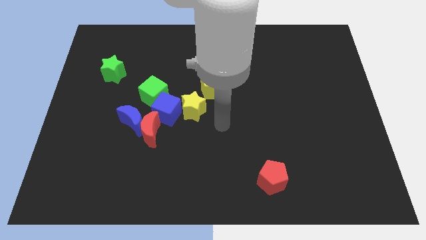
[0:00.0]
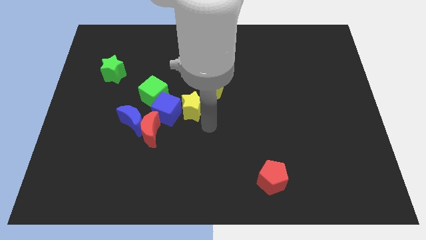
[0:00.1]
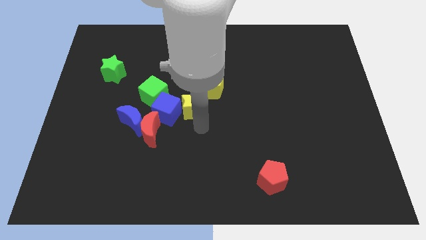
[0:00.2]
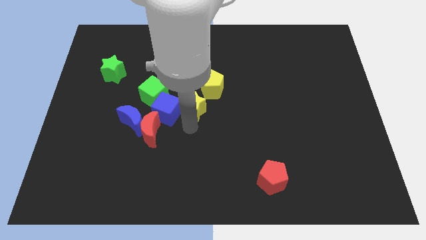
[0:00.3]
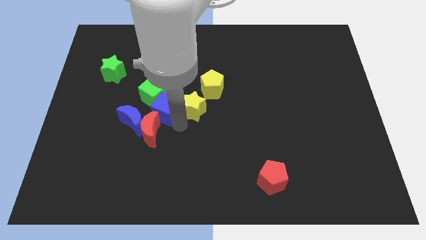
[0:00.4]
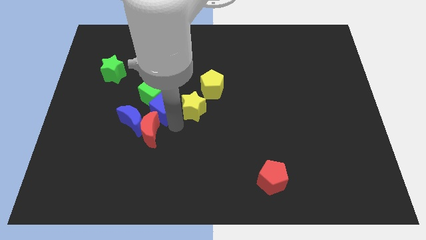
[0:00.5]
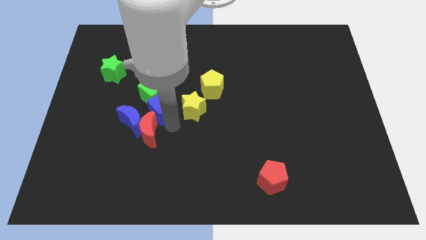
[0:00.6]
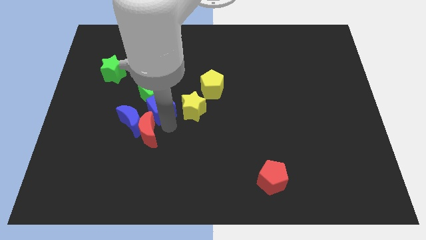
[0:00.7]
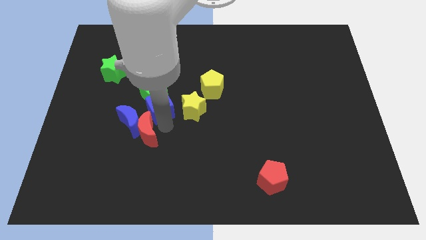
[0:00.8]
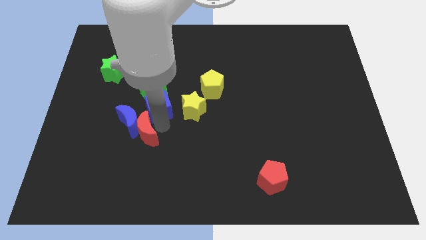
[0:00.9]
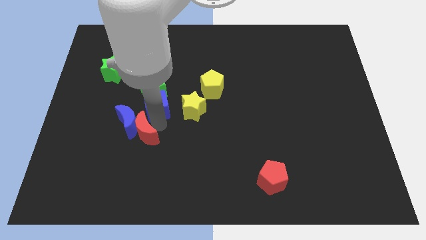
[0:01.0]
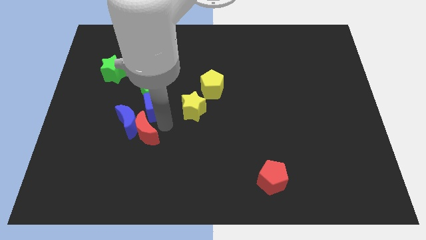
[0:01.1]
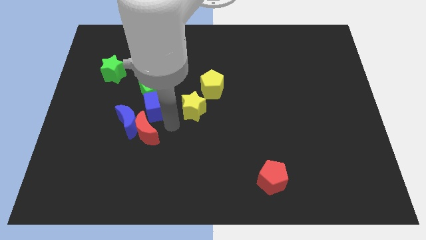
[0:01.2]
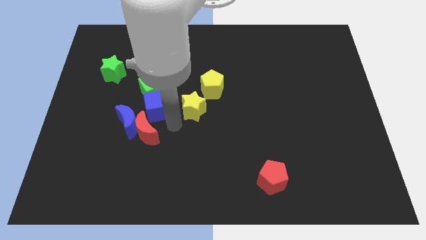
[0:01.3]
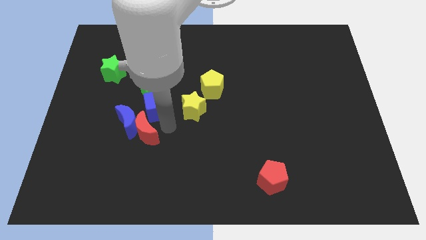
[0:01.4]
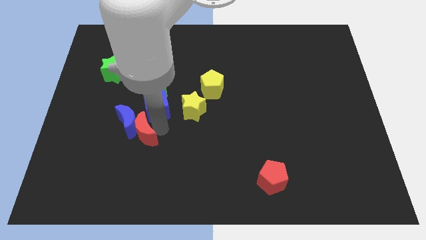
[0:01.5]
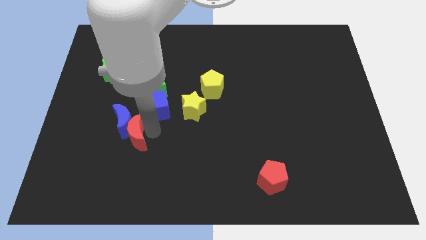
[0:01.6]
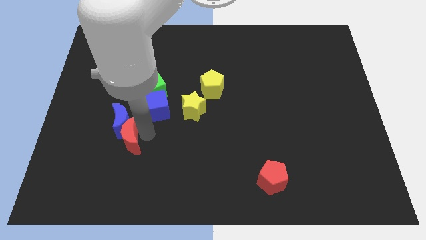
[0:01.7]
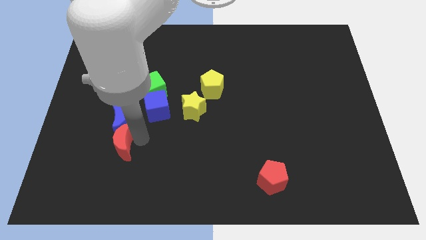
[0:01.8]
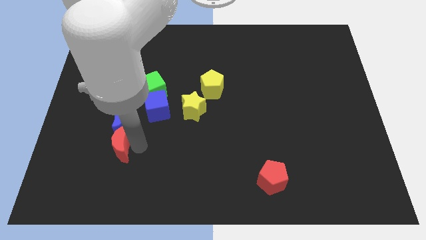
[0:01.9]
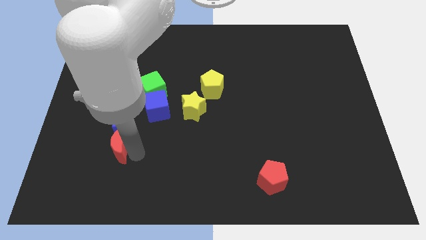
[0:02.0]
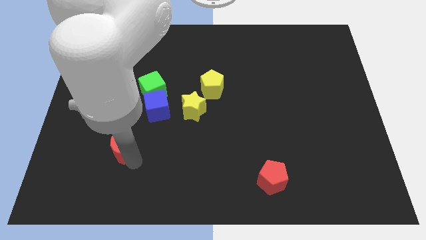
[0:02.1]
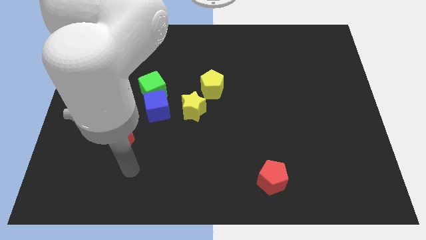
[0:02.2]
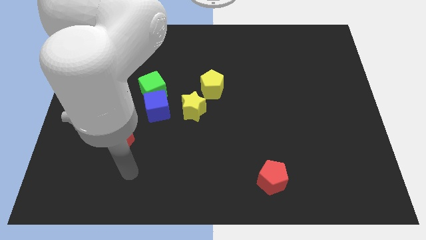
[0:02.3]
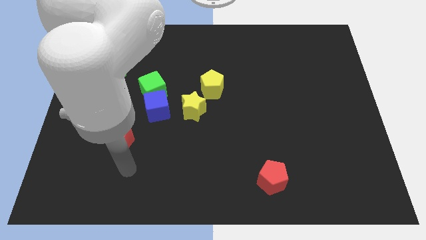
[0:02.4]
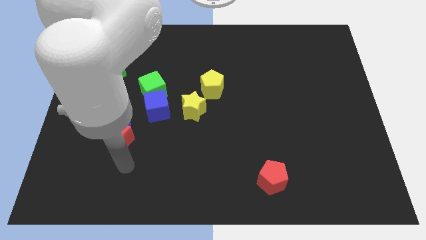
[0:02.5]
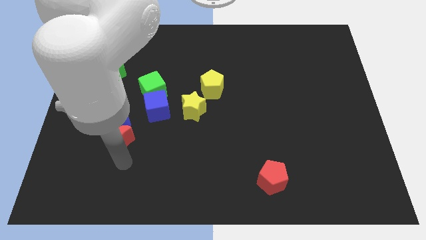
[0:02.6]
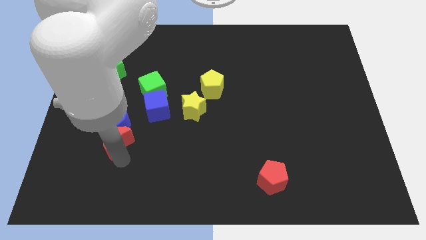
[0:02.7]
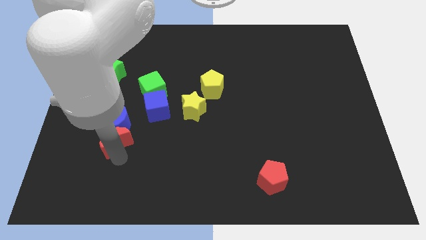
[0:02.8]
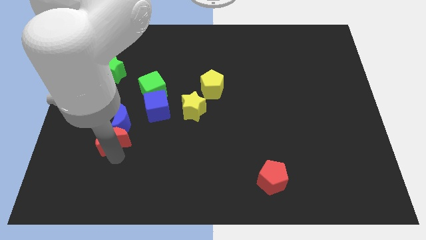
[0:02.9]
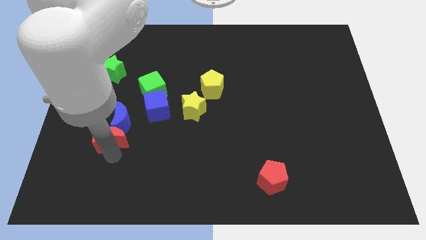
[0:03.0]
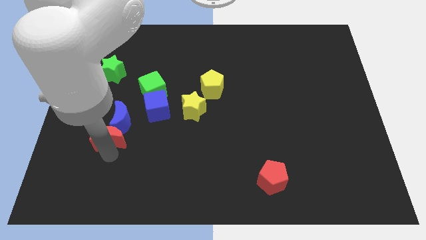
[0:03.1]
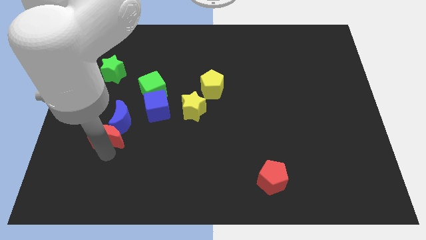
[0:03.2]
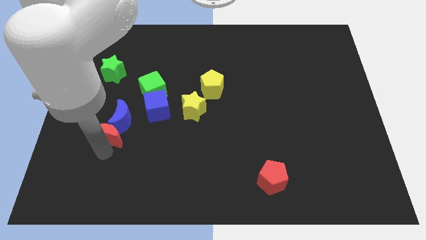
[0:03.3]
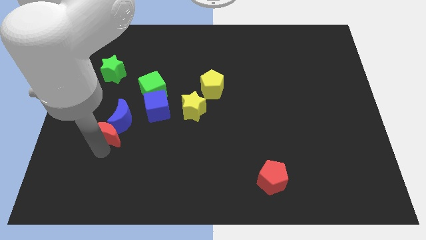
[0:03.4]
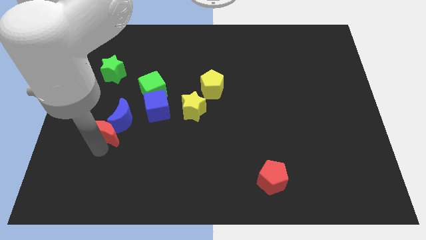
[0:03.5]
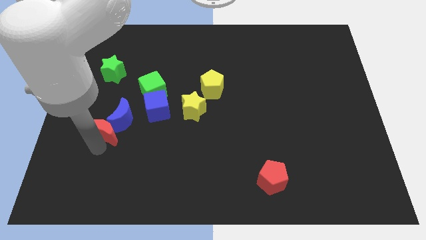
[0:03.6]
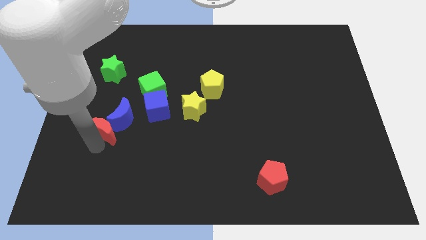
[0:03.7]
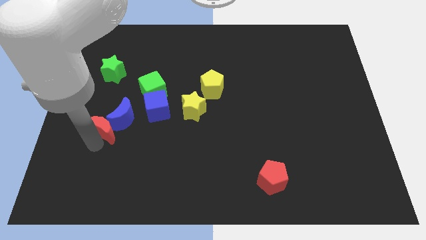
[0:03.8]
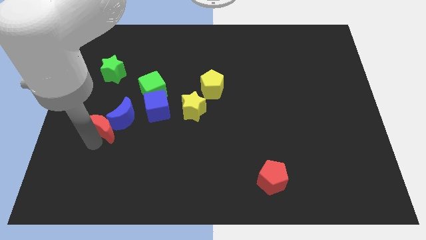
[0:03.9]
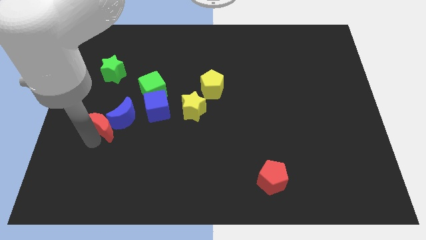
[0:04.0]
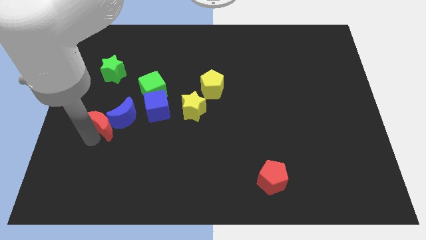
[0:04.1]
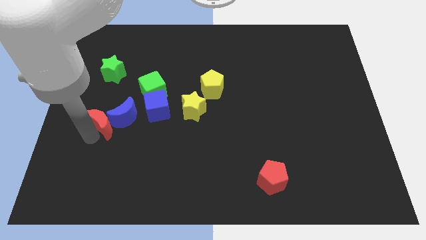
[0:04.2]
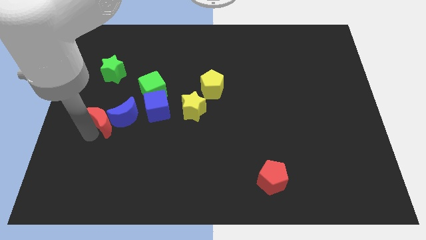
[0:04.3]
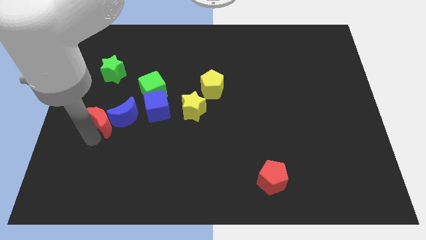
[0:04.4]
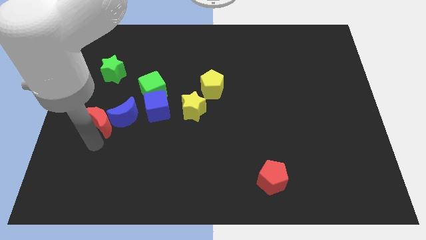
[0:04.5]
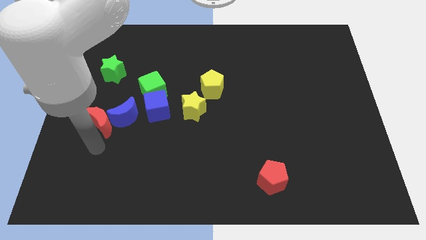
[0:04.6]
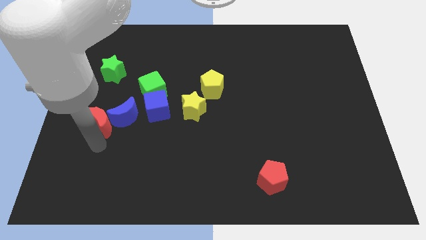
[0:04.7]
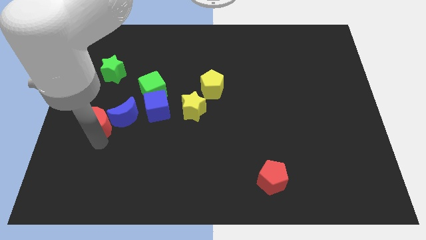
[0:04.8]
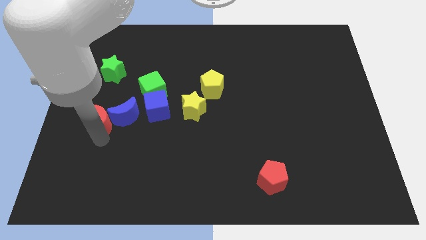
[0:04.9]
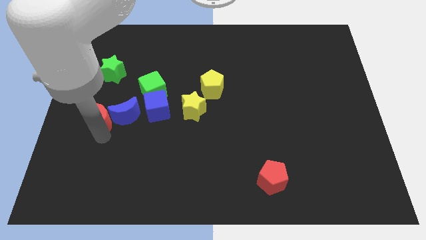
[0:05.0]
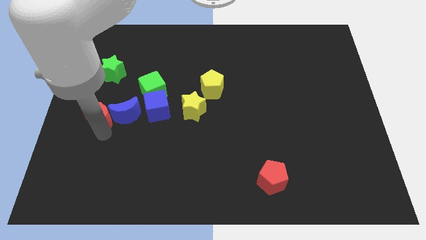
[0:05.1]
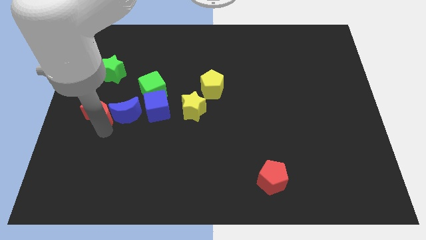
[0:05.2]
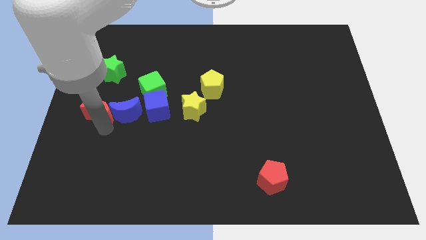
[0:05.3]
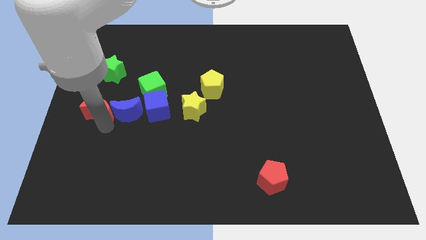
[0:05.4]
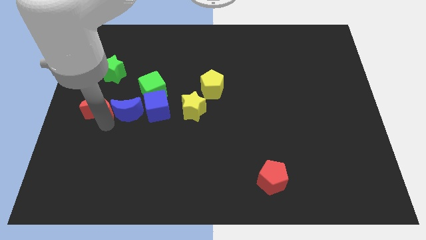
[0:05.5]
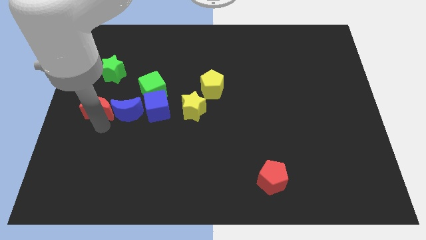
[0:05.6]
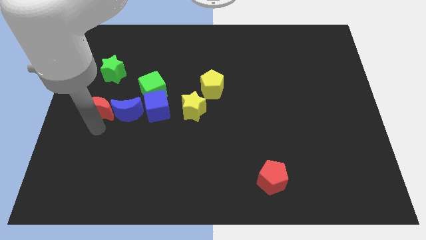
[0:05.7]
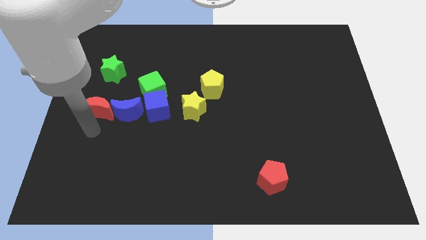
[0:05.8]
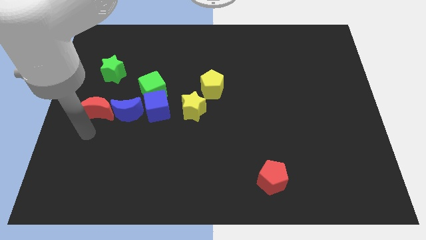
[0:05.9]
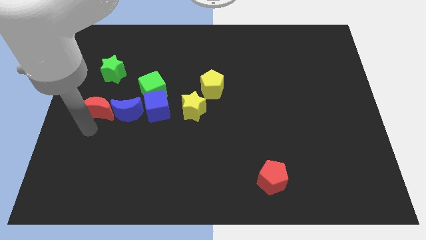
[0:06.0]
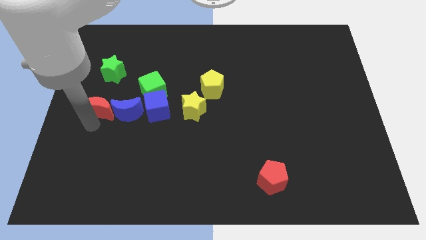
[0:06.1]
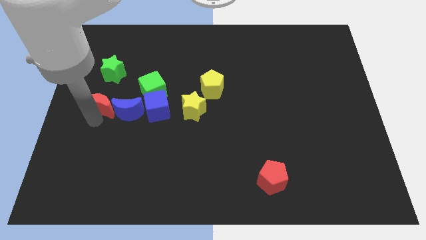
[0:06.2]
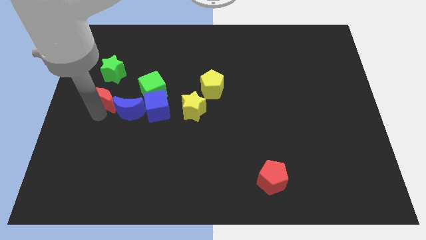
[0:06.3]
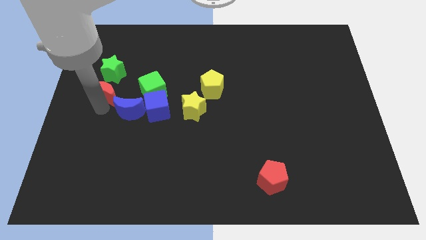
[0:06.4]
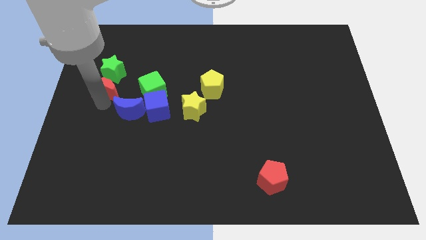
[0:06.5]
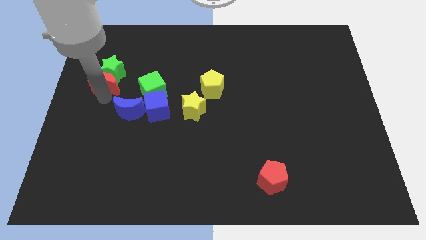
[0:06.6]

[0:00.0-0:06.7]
put the red moon next to the green star

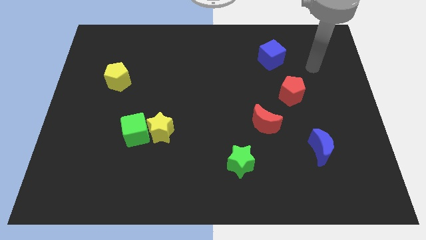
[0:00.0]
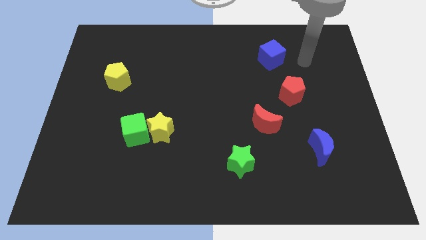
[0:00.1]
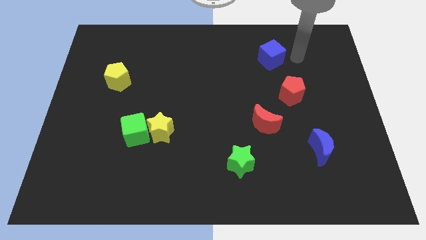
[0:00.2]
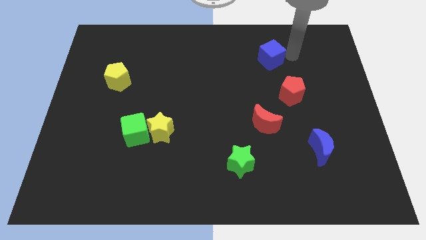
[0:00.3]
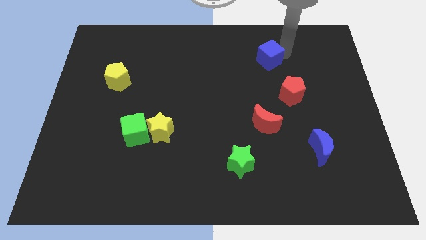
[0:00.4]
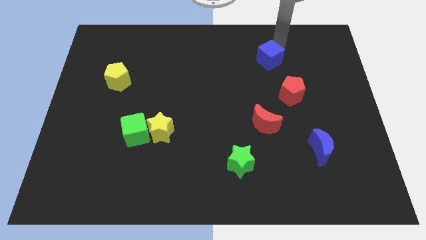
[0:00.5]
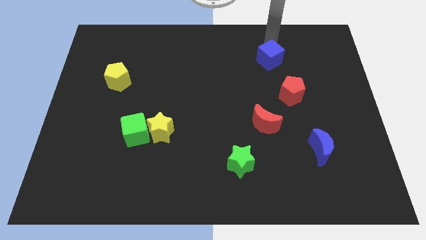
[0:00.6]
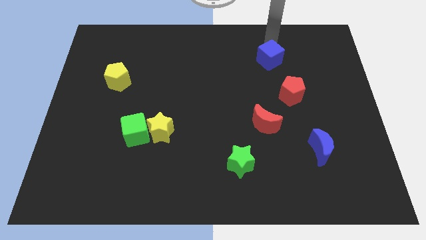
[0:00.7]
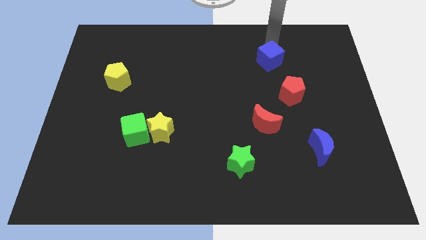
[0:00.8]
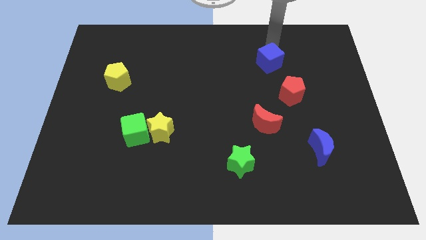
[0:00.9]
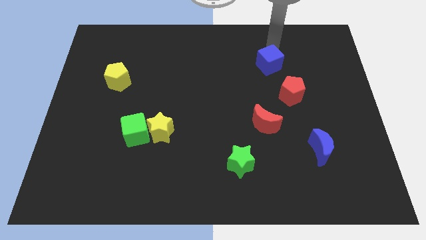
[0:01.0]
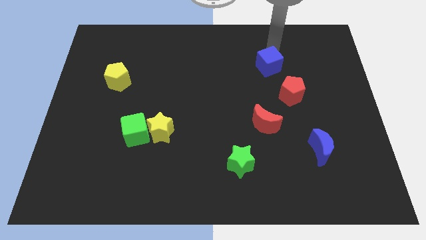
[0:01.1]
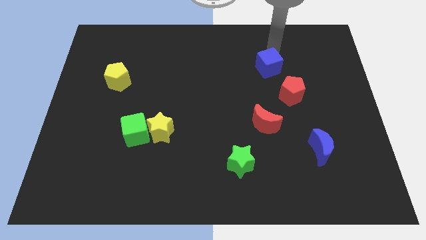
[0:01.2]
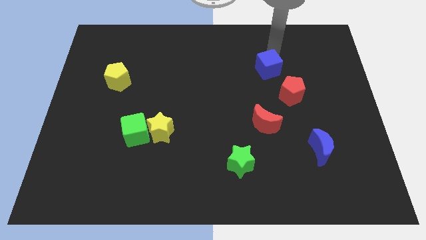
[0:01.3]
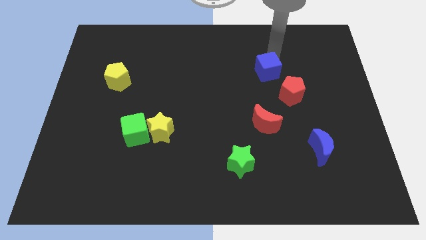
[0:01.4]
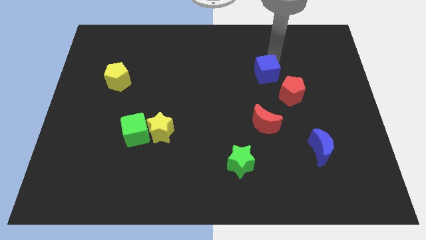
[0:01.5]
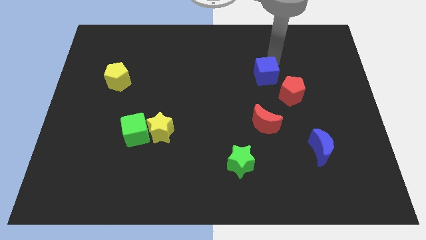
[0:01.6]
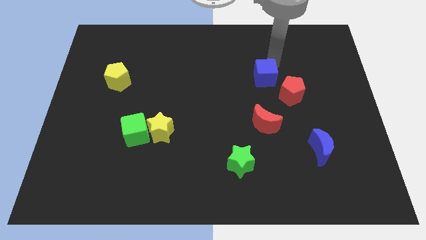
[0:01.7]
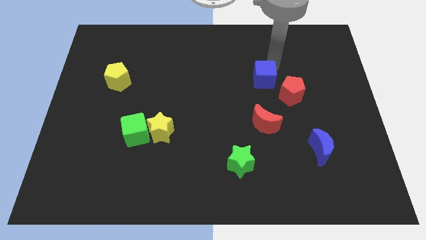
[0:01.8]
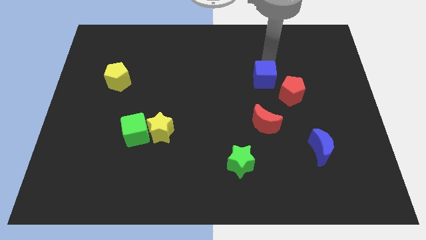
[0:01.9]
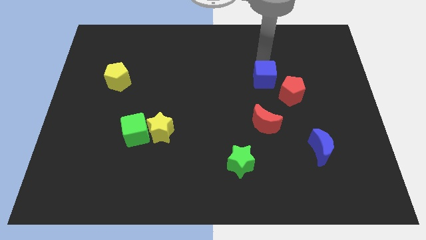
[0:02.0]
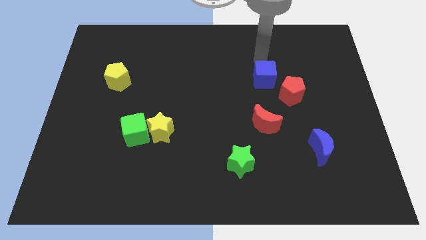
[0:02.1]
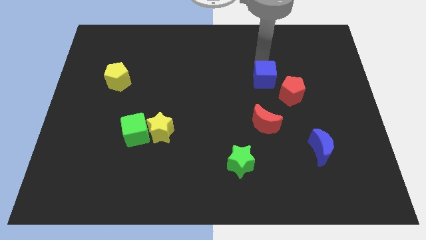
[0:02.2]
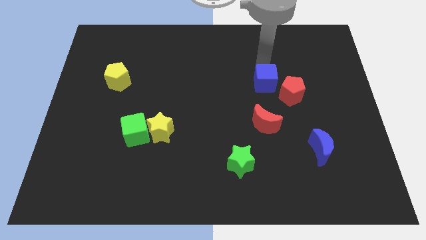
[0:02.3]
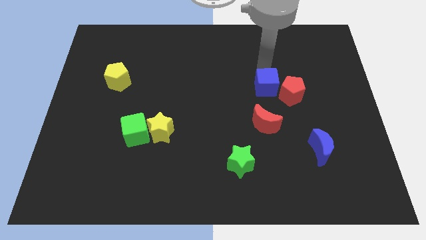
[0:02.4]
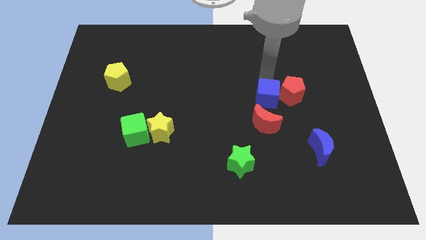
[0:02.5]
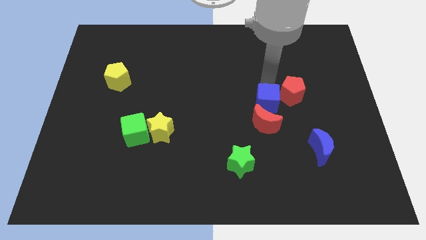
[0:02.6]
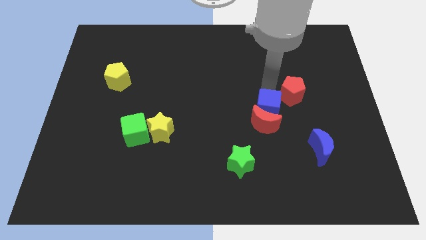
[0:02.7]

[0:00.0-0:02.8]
put the blue cube towards the red moon
